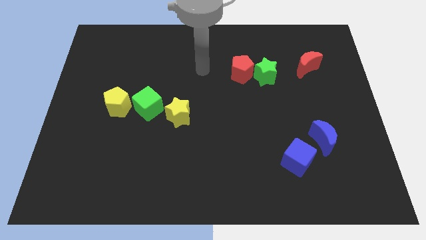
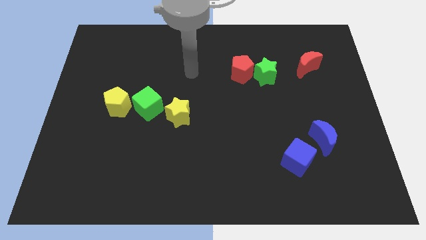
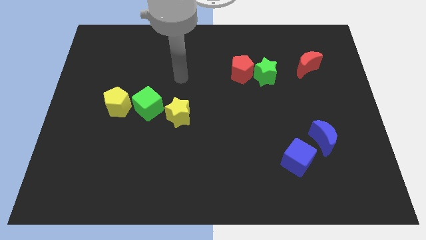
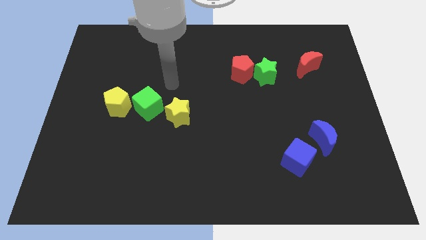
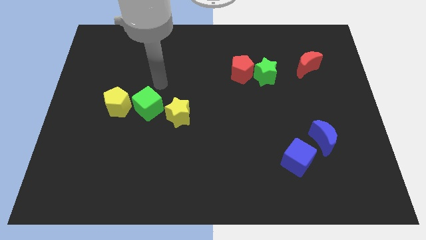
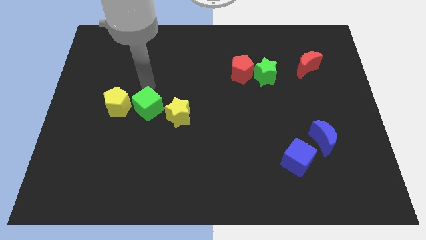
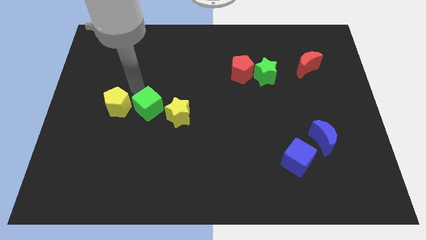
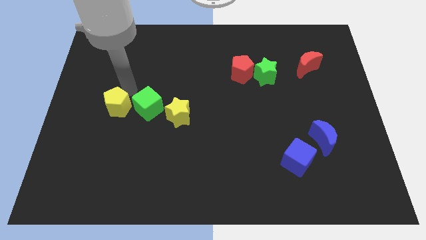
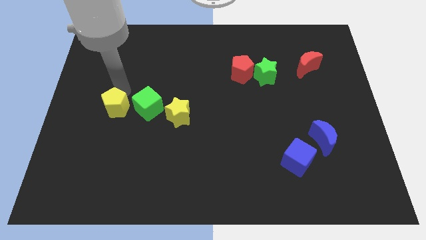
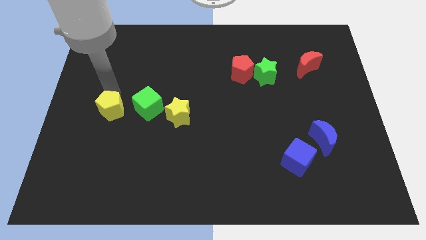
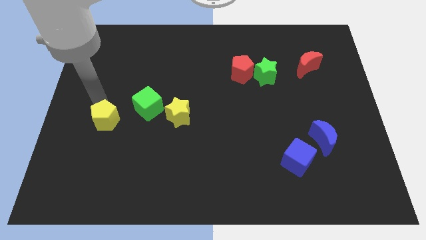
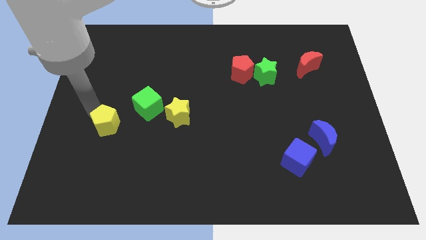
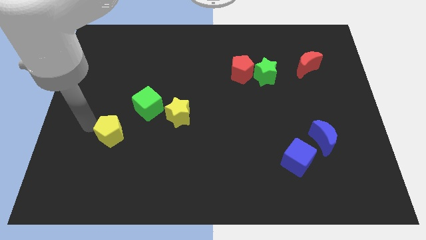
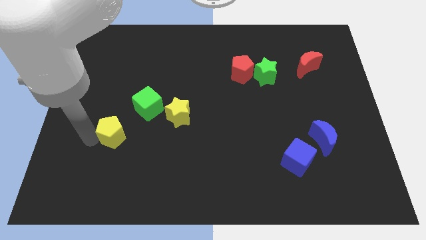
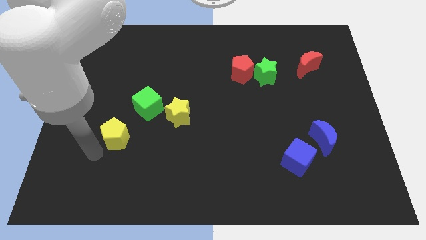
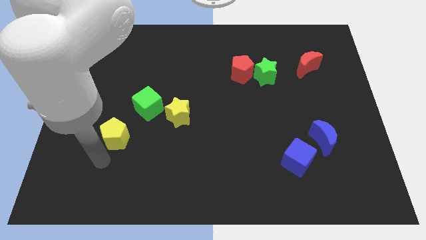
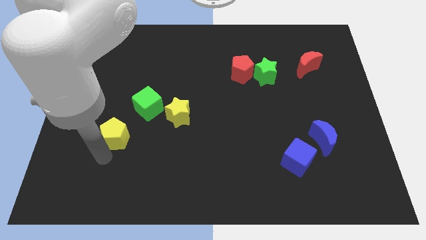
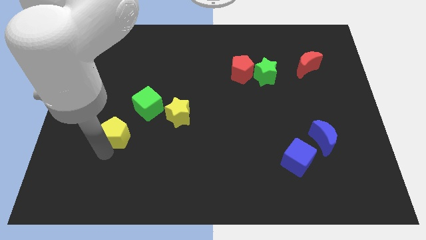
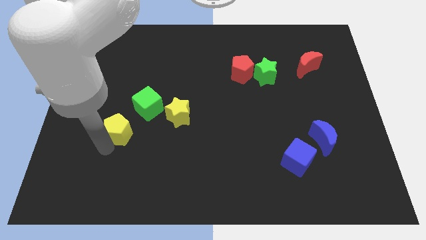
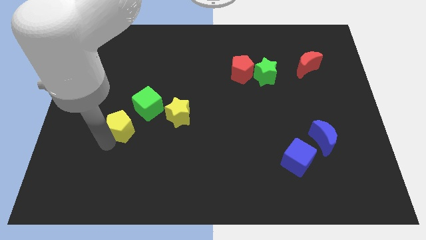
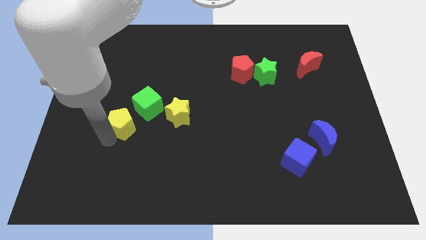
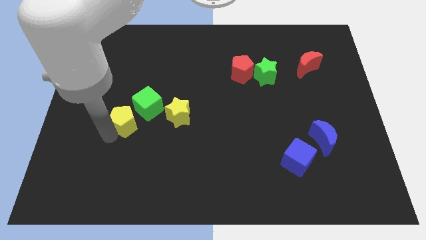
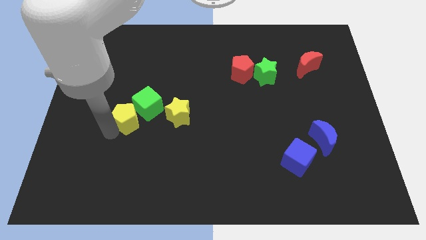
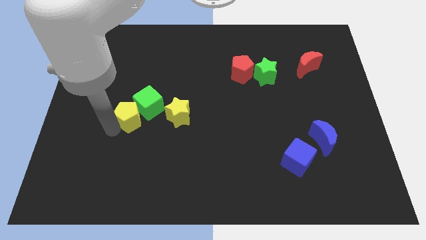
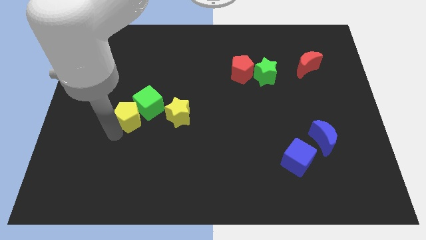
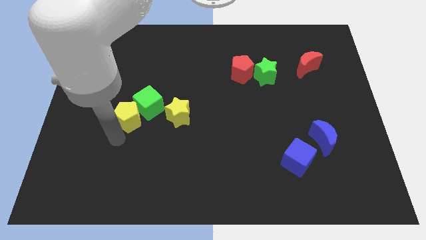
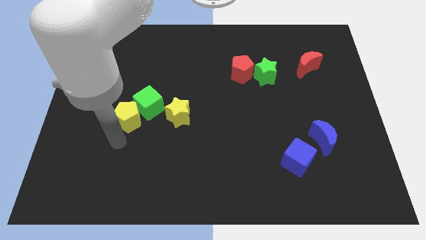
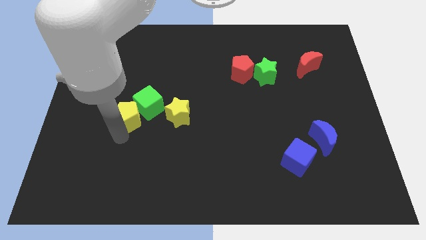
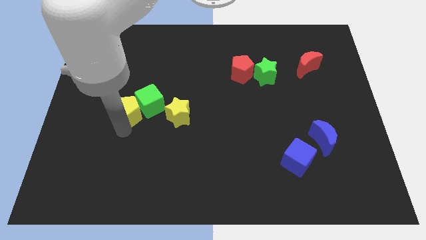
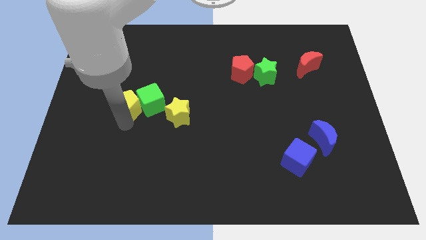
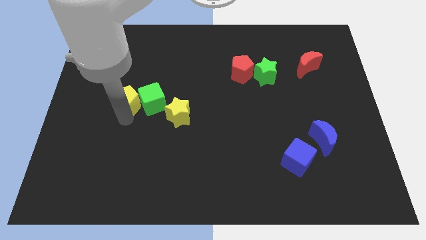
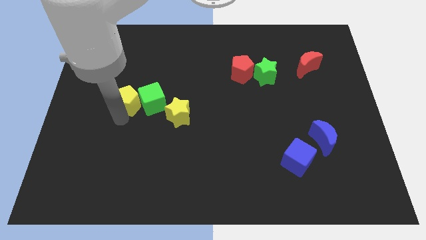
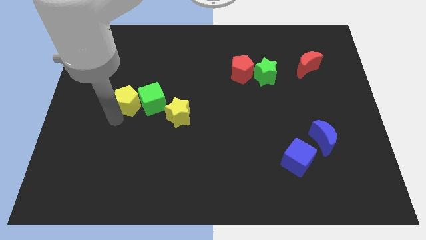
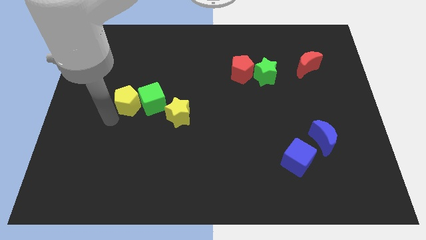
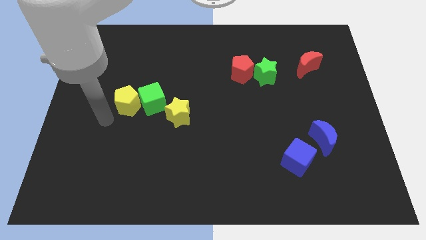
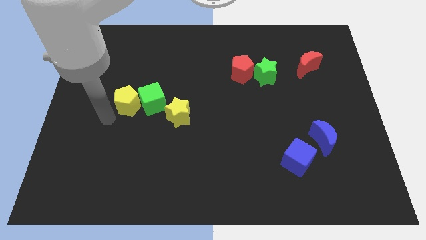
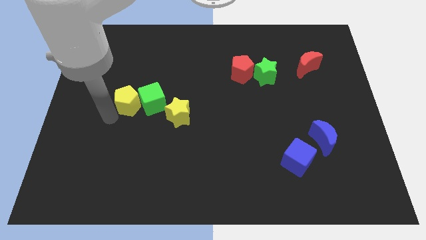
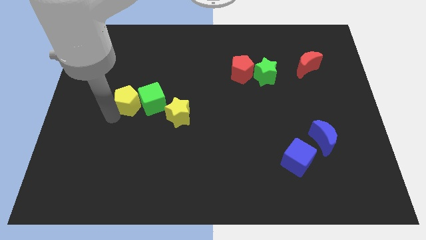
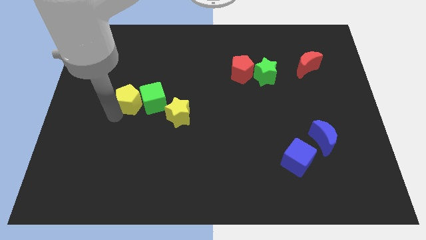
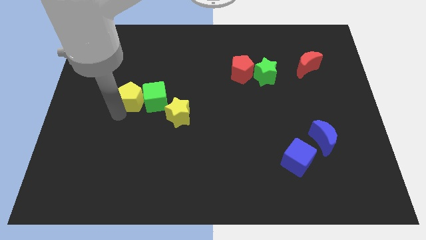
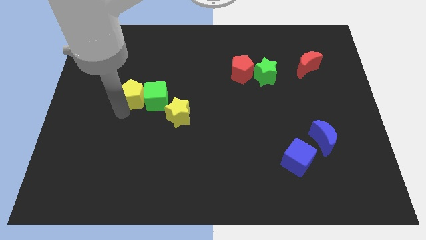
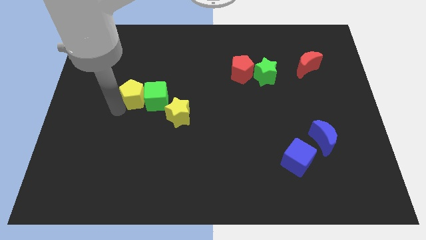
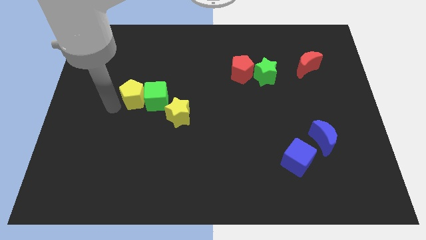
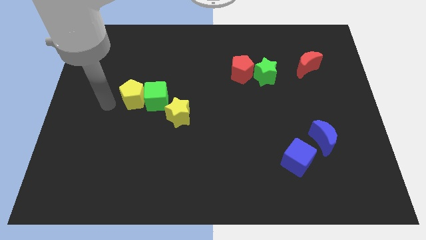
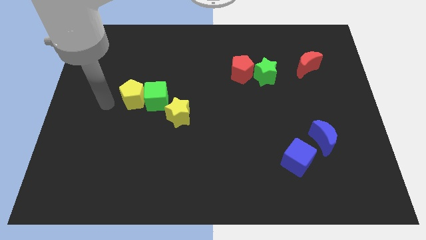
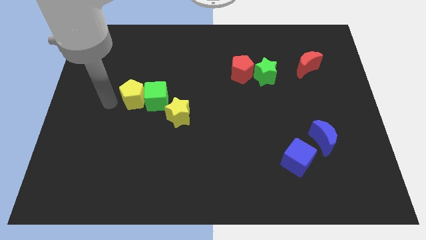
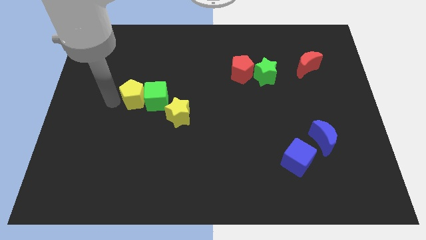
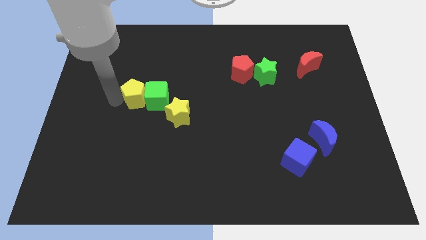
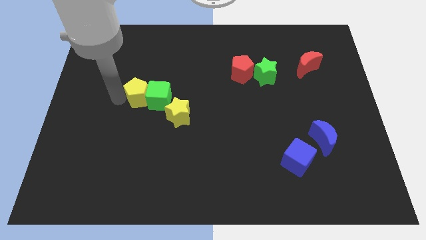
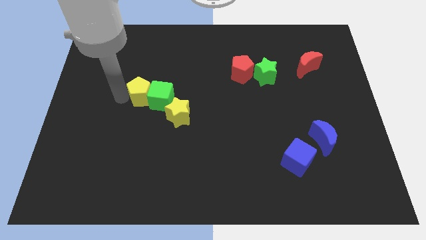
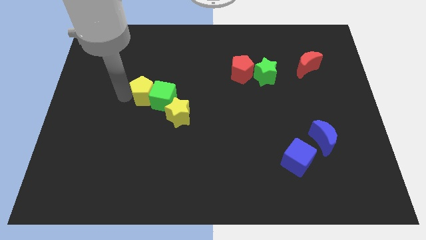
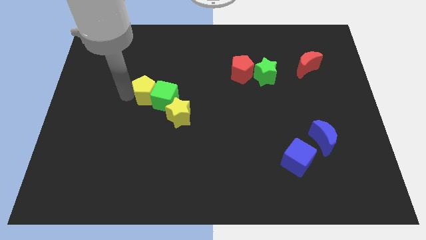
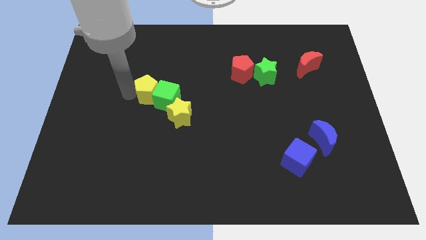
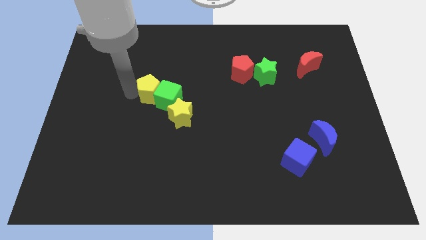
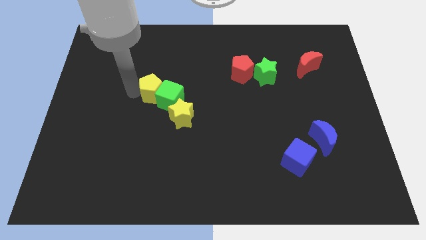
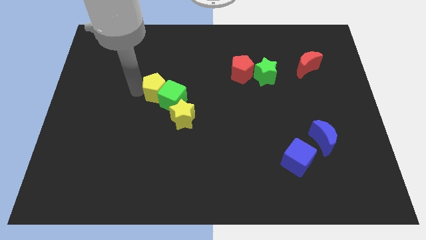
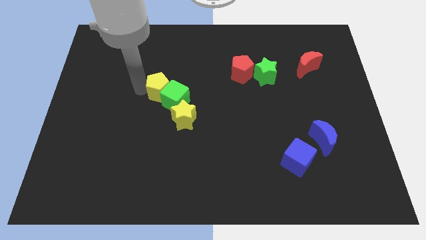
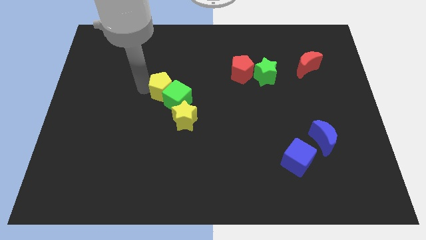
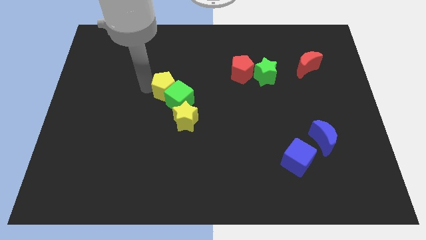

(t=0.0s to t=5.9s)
slide the yellow pentagon to the middle

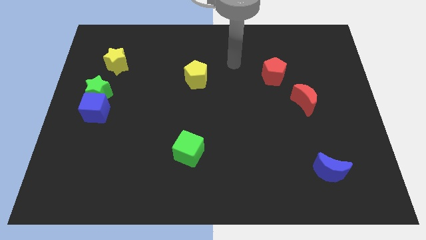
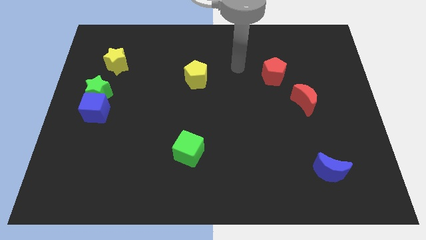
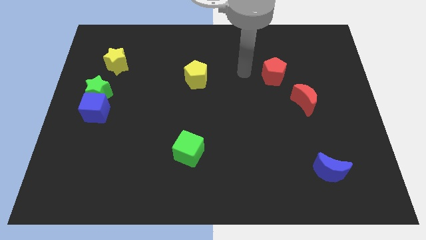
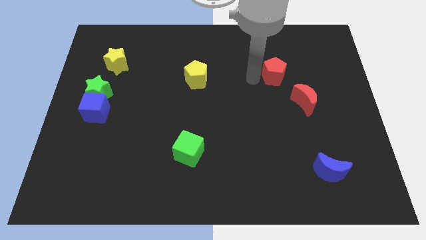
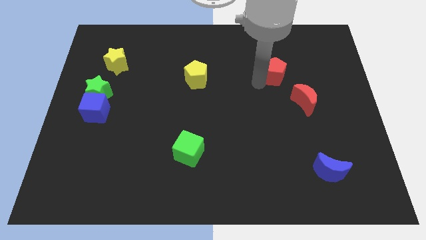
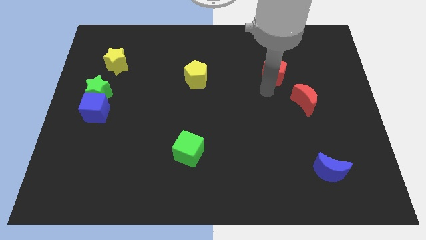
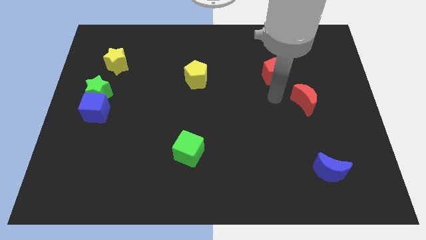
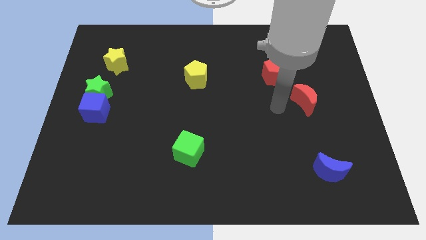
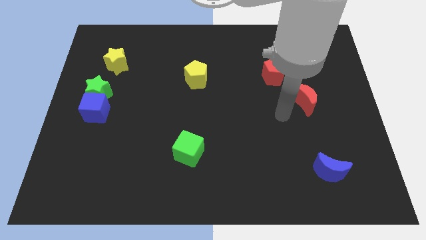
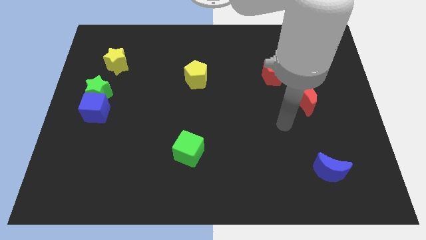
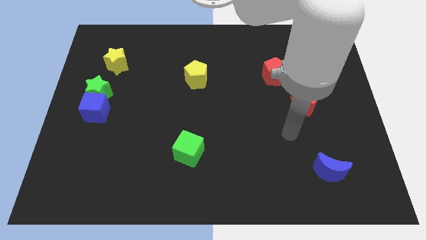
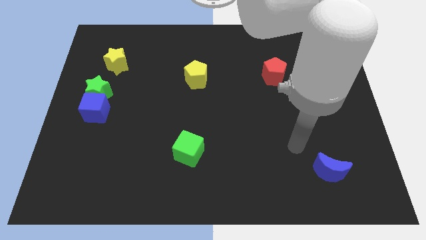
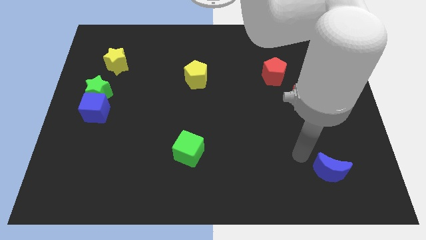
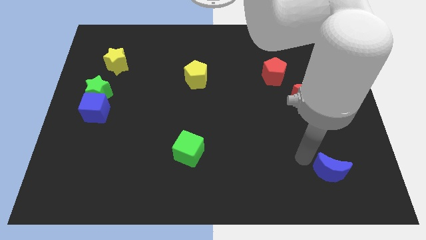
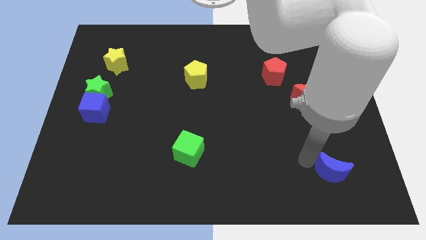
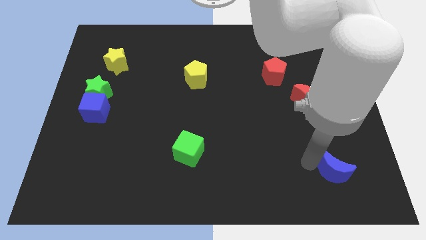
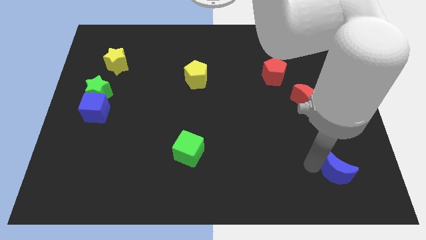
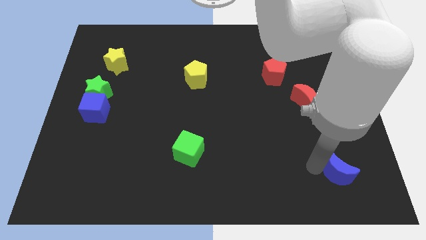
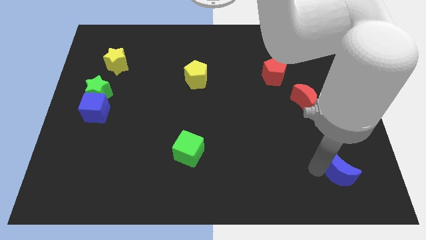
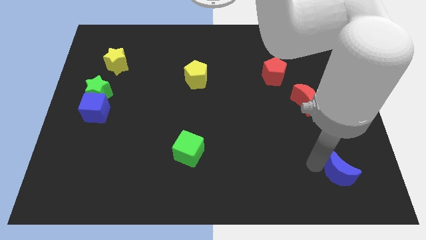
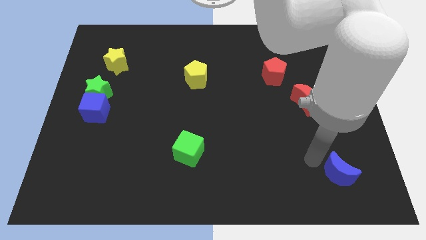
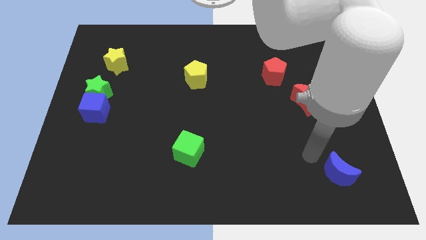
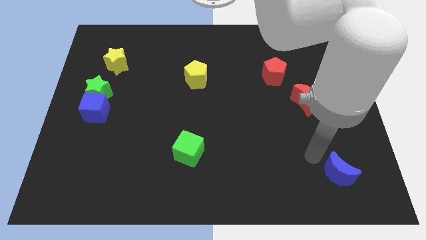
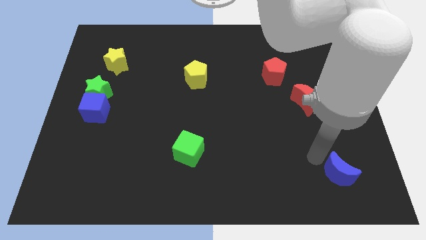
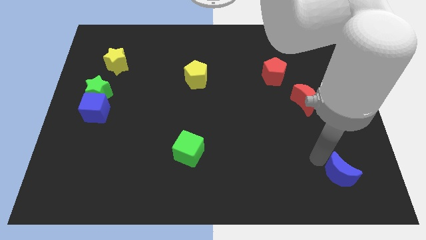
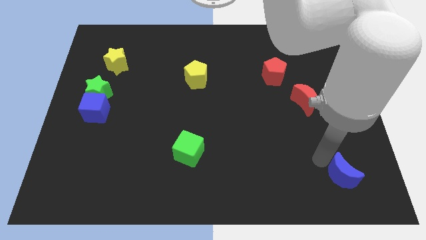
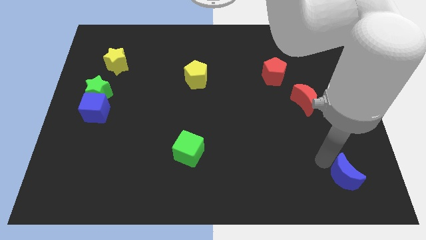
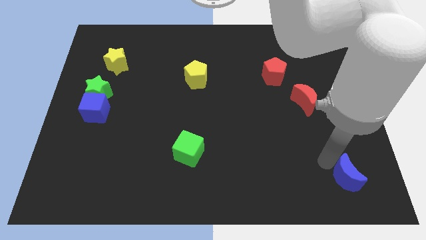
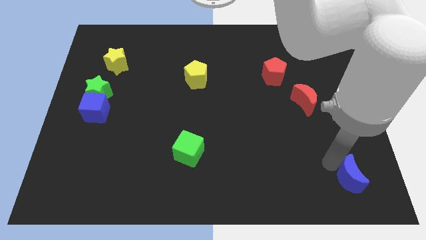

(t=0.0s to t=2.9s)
push the blue moon to the bottom right corner
